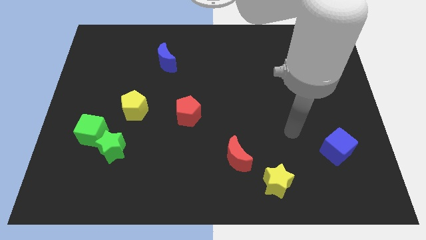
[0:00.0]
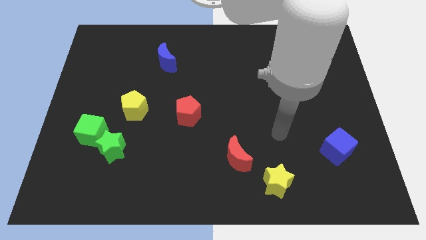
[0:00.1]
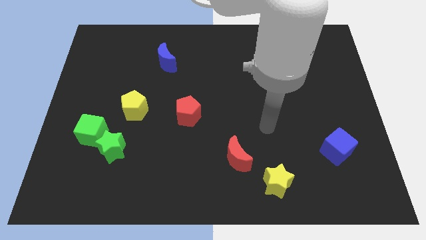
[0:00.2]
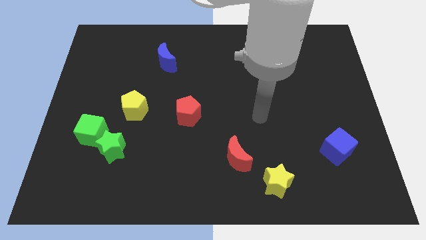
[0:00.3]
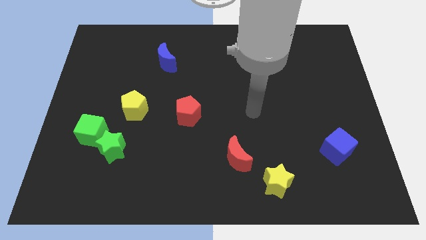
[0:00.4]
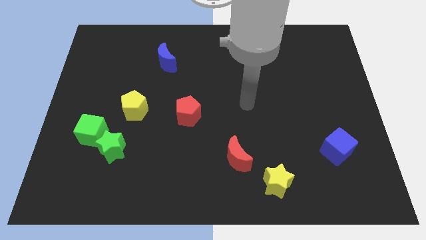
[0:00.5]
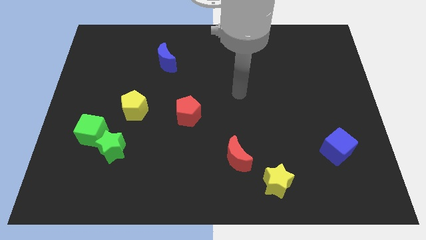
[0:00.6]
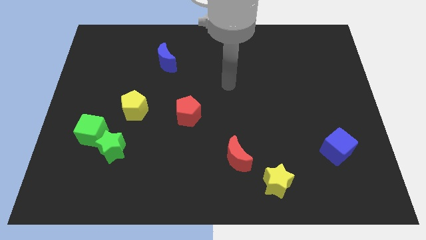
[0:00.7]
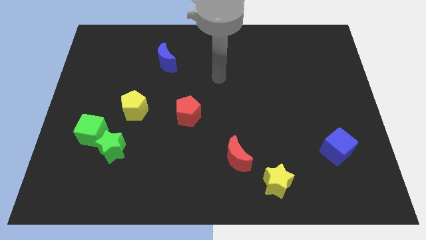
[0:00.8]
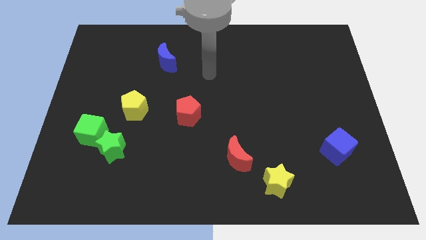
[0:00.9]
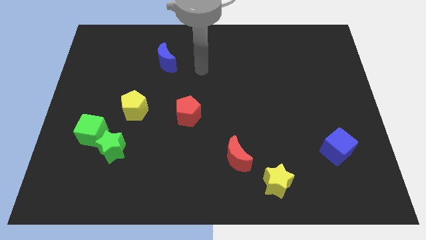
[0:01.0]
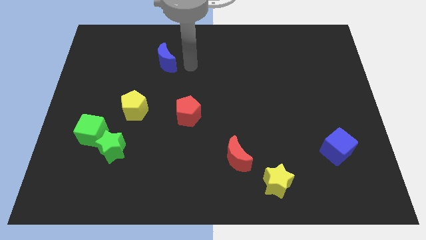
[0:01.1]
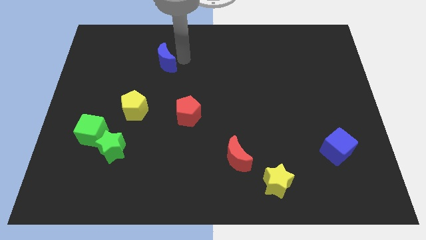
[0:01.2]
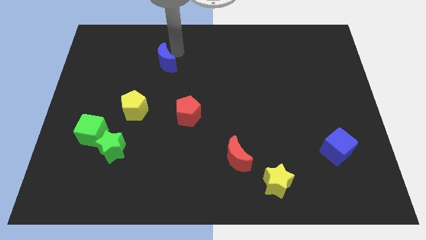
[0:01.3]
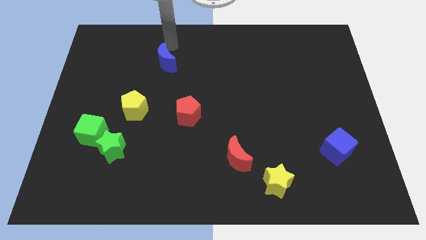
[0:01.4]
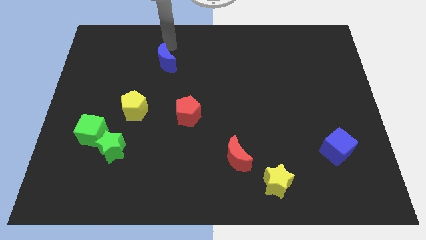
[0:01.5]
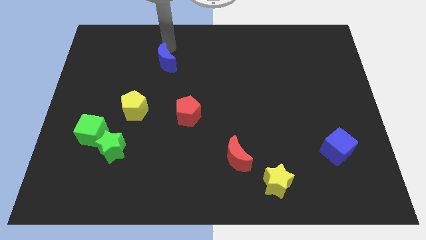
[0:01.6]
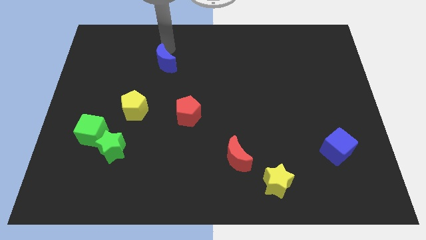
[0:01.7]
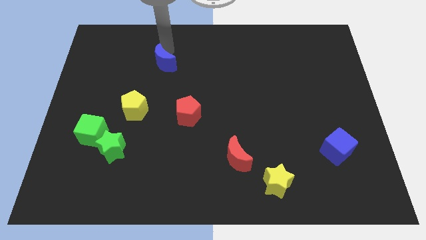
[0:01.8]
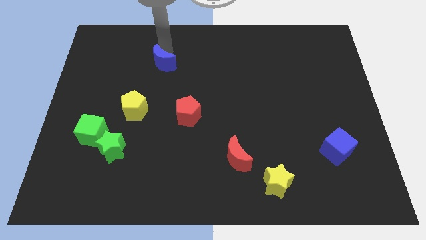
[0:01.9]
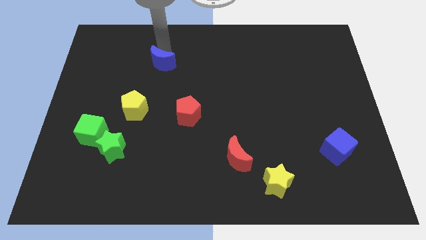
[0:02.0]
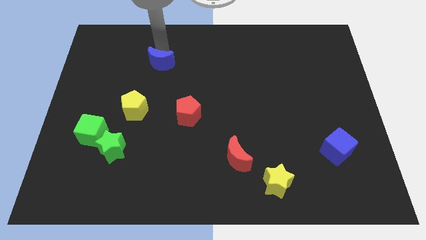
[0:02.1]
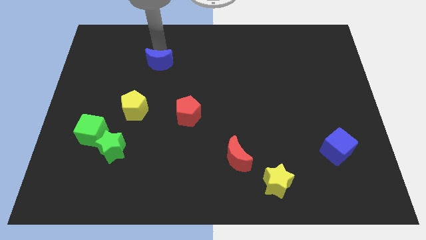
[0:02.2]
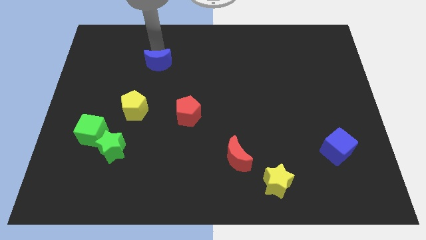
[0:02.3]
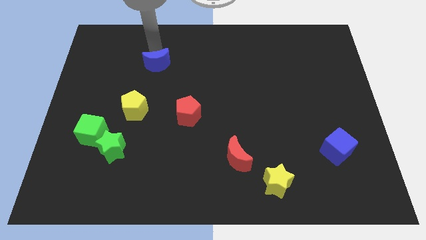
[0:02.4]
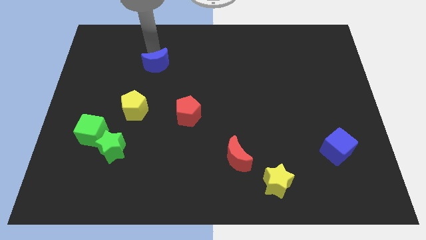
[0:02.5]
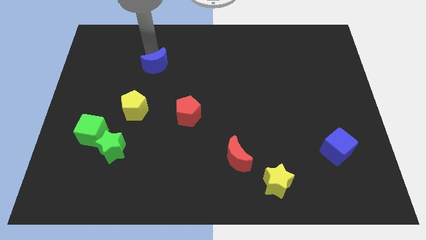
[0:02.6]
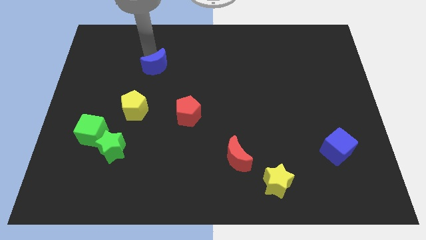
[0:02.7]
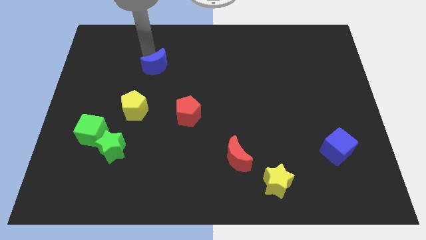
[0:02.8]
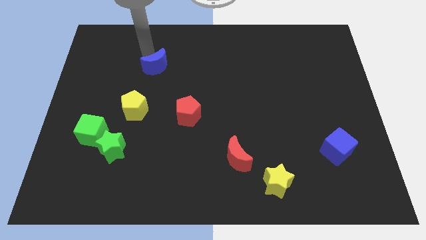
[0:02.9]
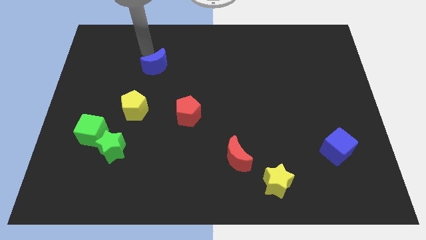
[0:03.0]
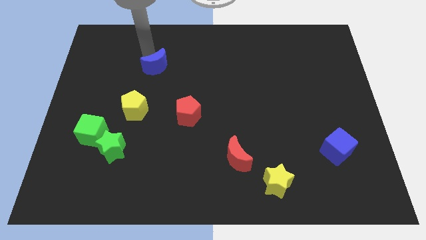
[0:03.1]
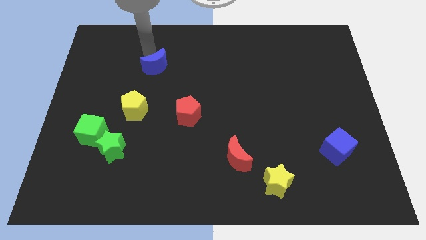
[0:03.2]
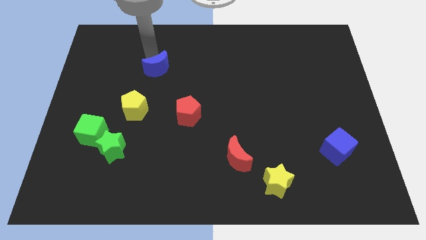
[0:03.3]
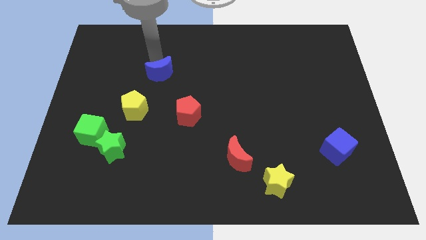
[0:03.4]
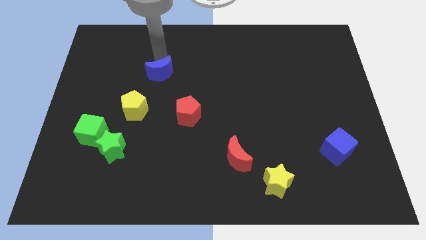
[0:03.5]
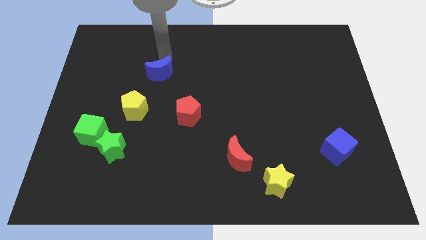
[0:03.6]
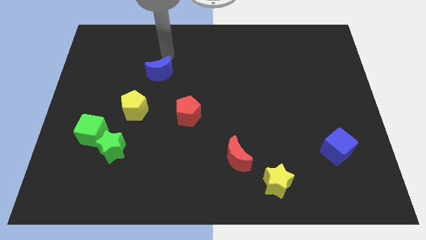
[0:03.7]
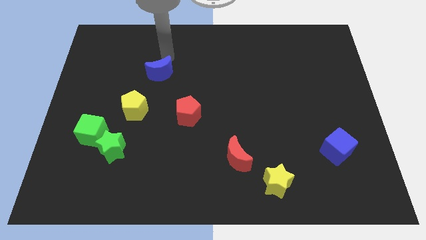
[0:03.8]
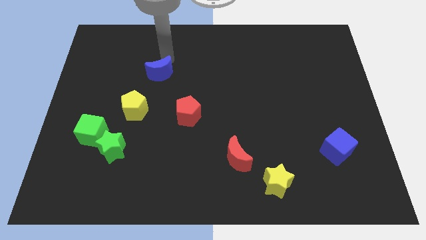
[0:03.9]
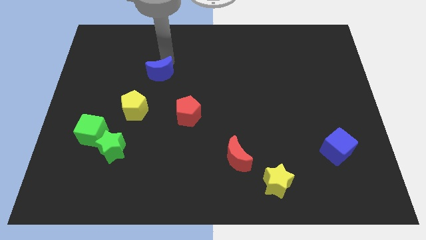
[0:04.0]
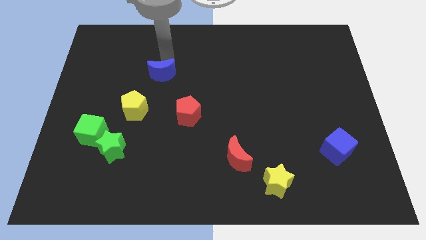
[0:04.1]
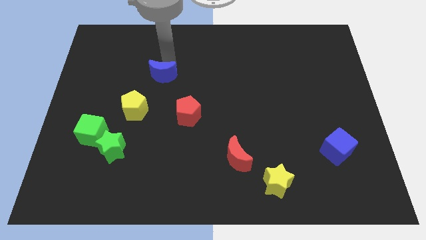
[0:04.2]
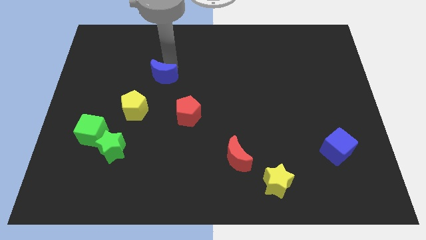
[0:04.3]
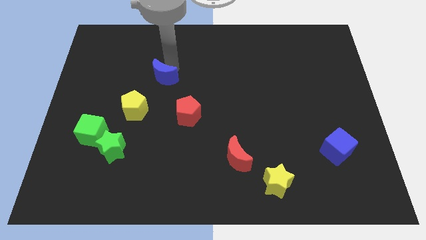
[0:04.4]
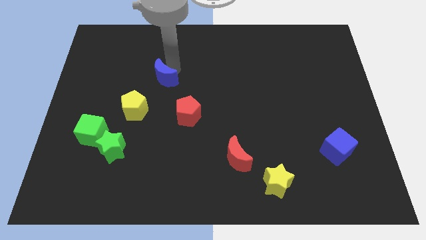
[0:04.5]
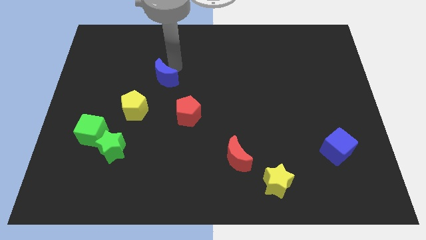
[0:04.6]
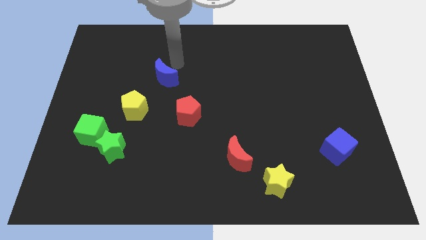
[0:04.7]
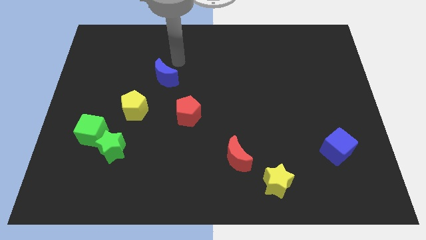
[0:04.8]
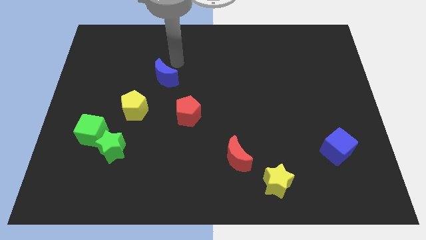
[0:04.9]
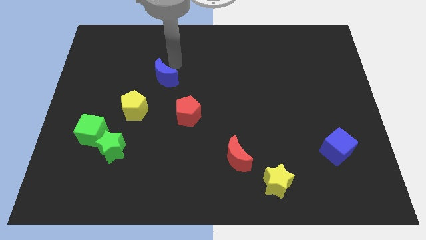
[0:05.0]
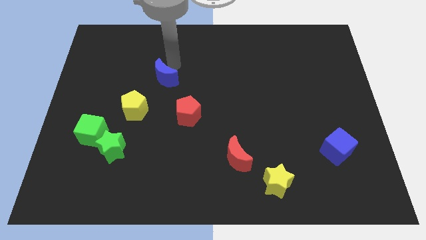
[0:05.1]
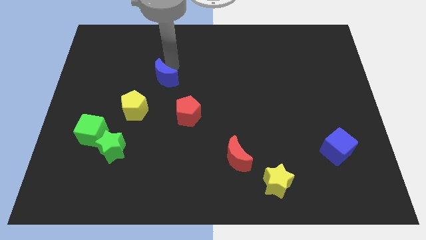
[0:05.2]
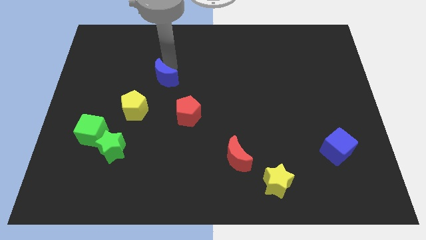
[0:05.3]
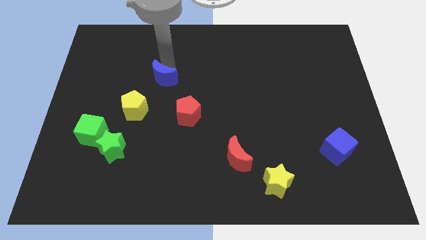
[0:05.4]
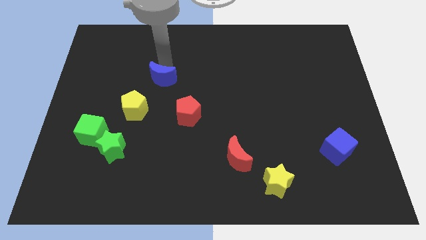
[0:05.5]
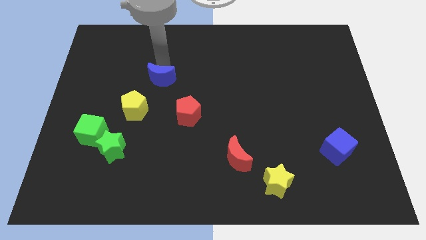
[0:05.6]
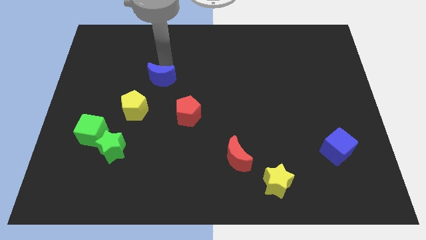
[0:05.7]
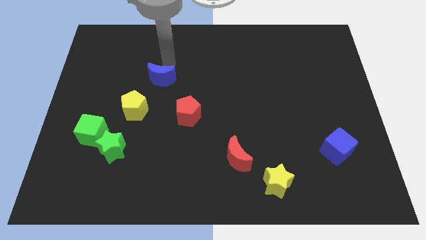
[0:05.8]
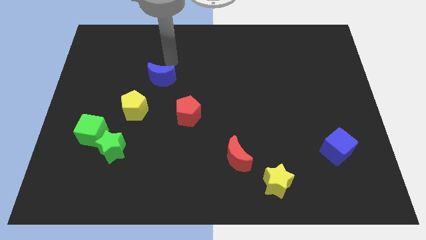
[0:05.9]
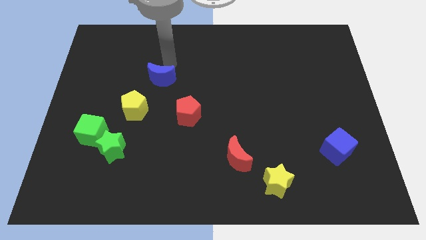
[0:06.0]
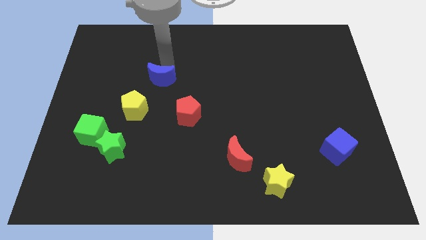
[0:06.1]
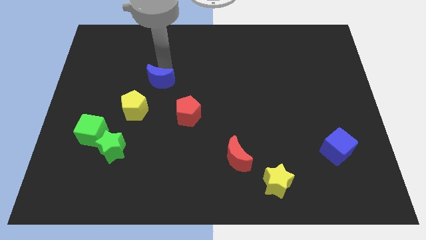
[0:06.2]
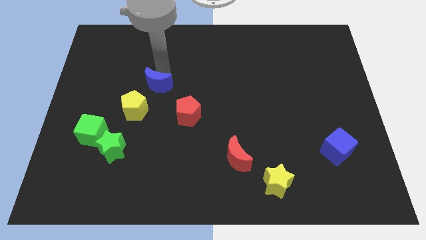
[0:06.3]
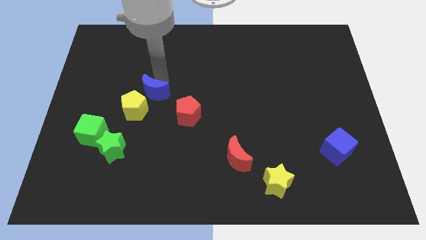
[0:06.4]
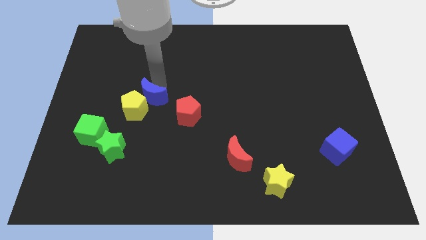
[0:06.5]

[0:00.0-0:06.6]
push the blue moon to the yellow pentagon

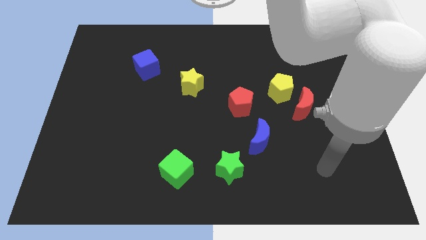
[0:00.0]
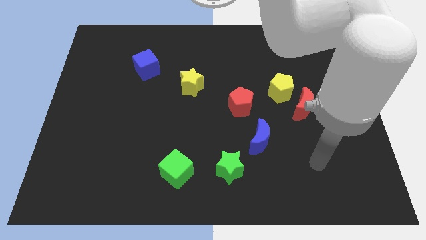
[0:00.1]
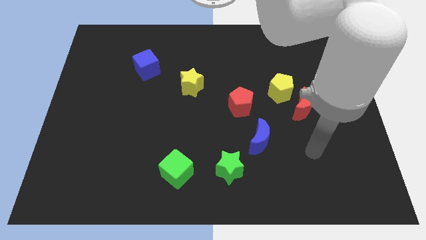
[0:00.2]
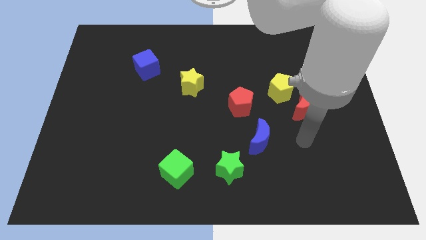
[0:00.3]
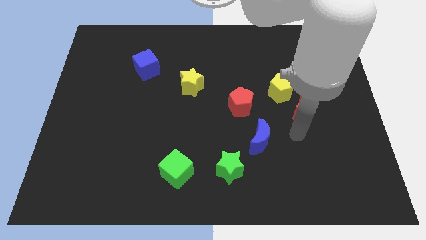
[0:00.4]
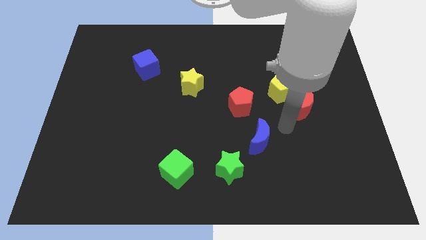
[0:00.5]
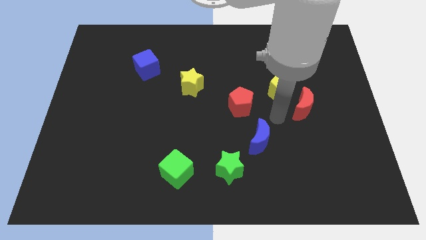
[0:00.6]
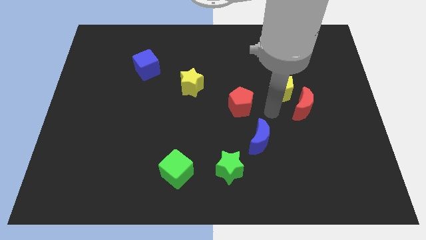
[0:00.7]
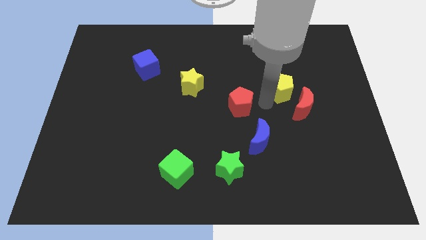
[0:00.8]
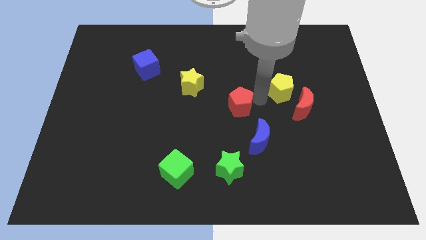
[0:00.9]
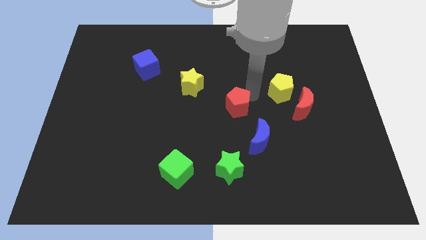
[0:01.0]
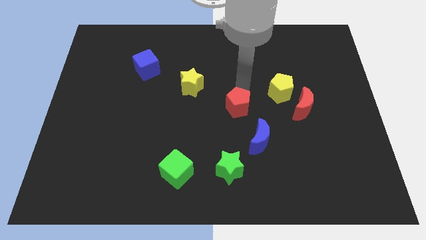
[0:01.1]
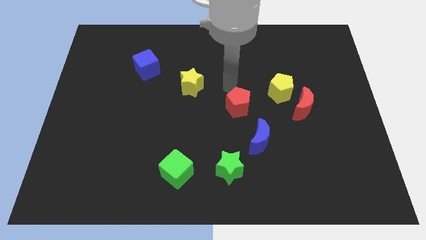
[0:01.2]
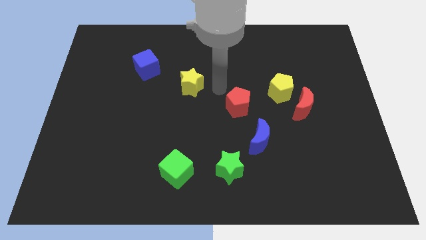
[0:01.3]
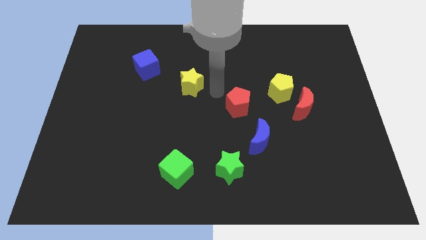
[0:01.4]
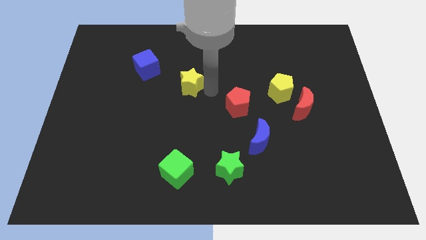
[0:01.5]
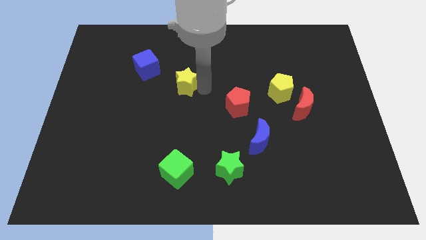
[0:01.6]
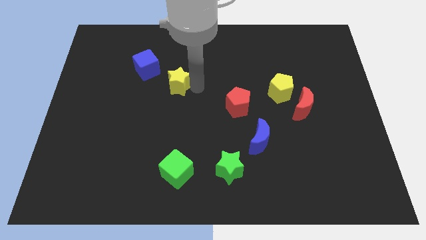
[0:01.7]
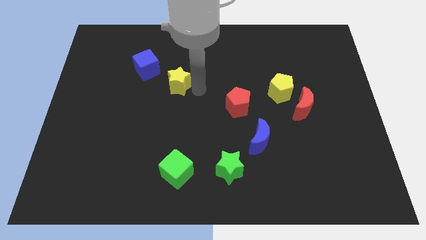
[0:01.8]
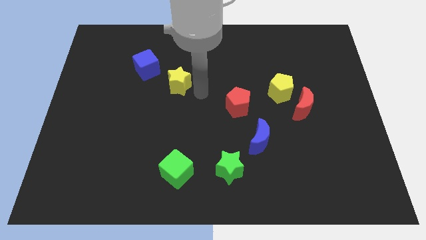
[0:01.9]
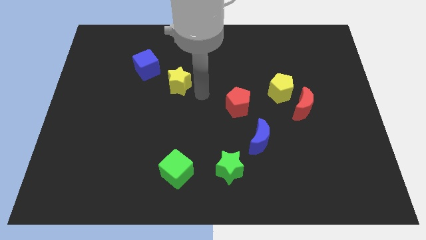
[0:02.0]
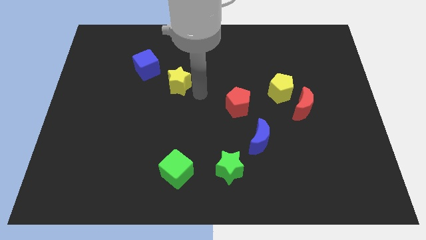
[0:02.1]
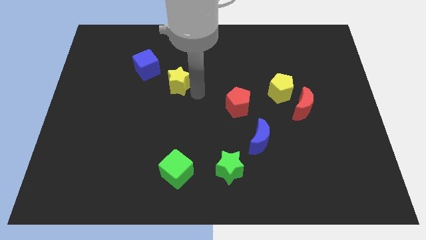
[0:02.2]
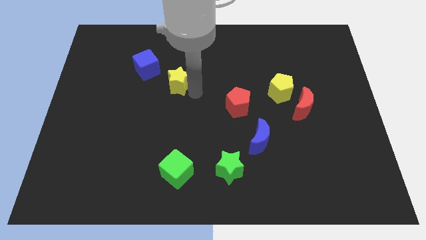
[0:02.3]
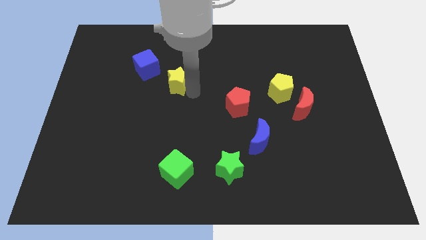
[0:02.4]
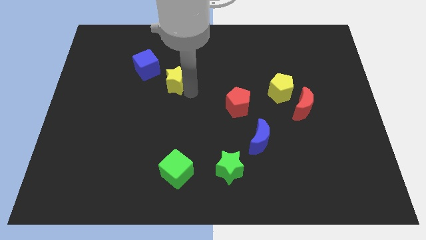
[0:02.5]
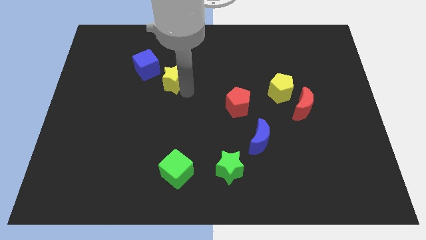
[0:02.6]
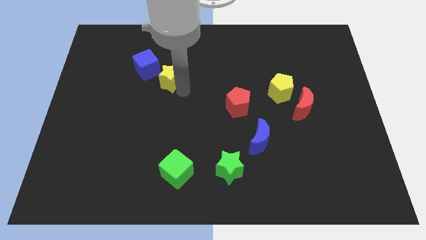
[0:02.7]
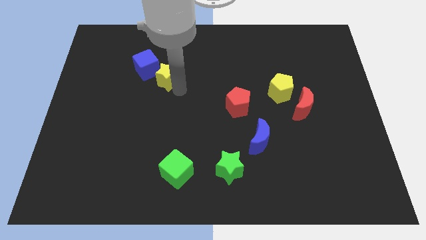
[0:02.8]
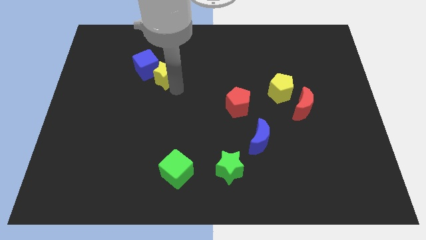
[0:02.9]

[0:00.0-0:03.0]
put the yellow star towards the blue cube
